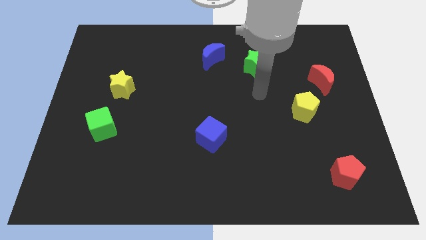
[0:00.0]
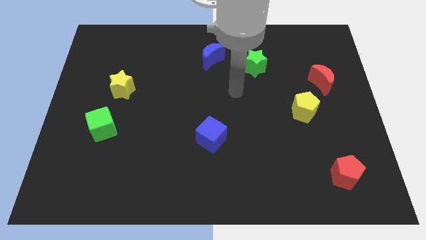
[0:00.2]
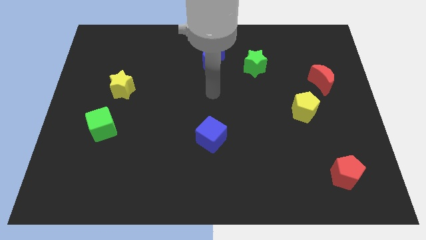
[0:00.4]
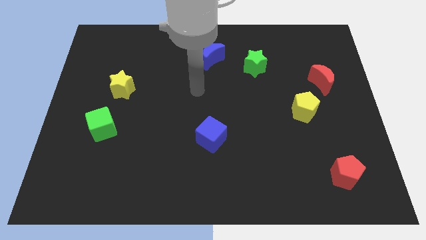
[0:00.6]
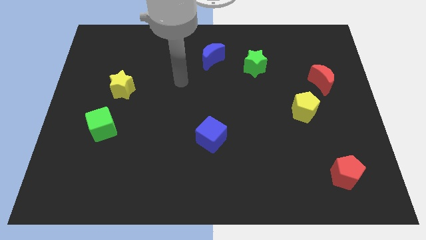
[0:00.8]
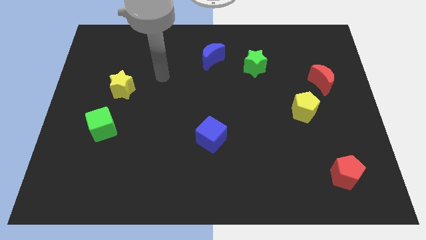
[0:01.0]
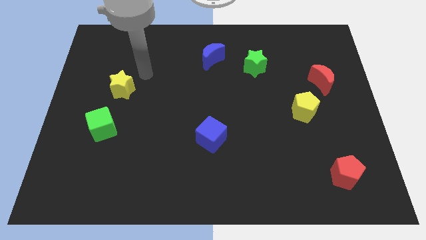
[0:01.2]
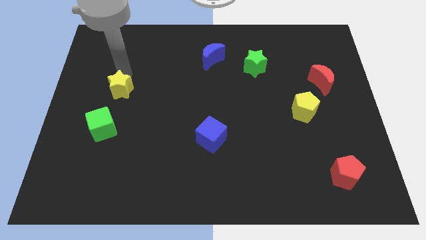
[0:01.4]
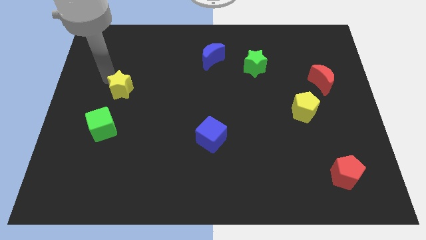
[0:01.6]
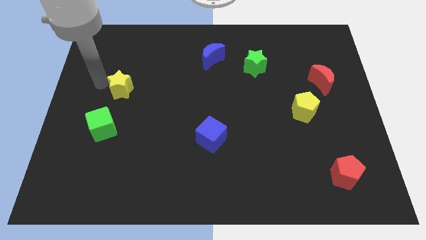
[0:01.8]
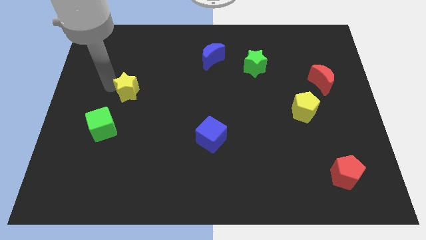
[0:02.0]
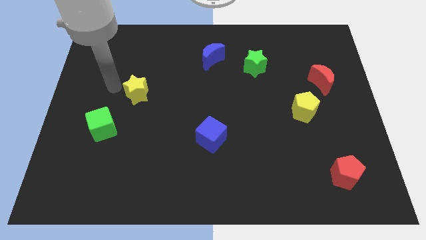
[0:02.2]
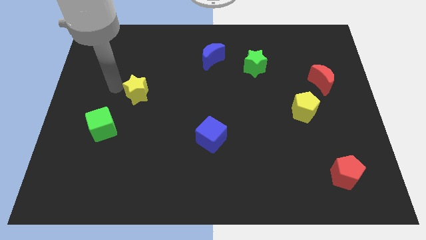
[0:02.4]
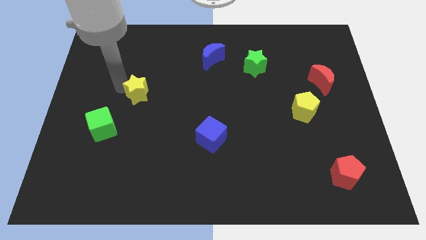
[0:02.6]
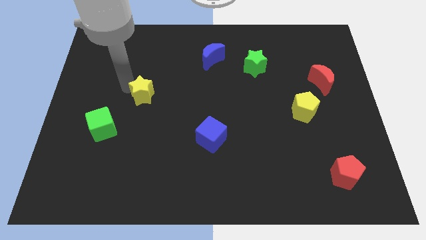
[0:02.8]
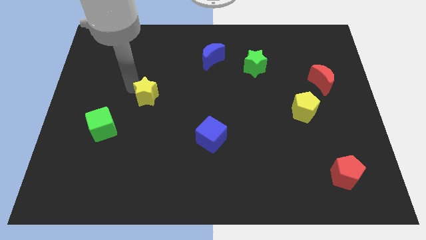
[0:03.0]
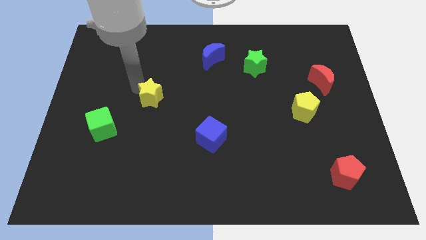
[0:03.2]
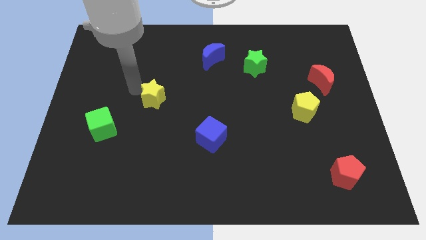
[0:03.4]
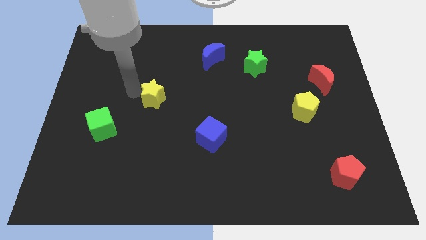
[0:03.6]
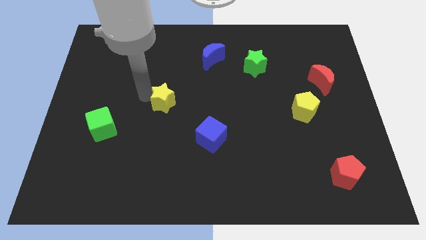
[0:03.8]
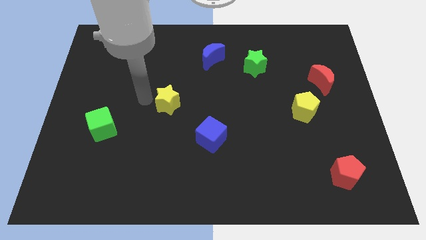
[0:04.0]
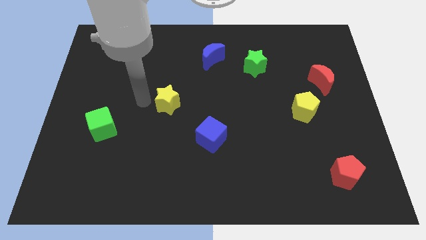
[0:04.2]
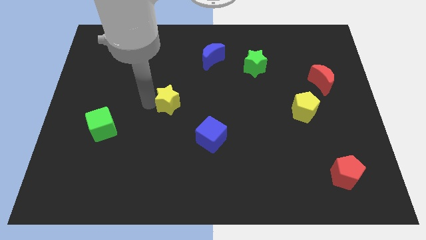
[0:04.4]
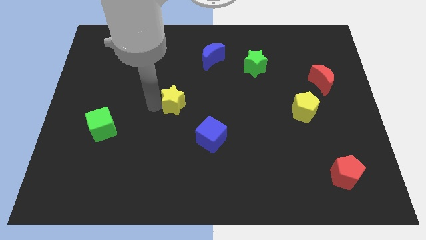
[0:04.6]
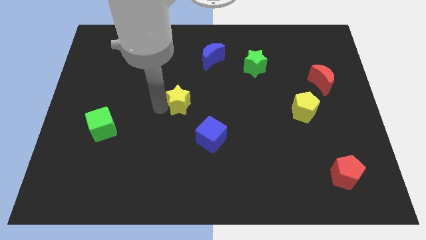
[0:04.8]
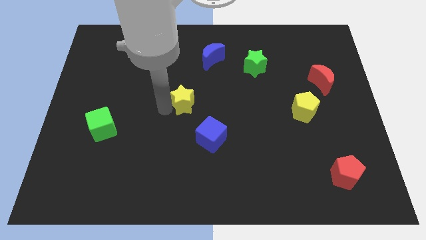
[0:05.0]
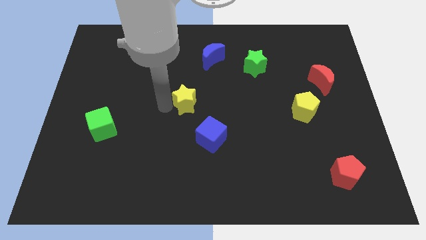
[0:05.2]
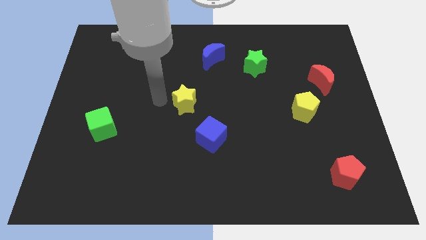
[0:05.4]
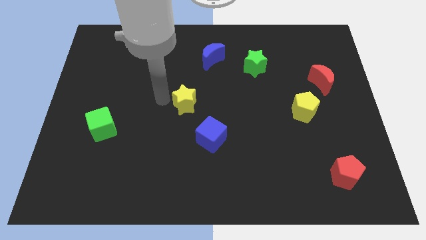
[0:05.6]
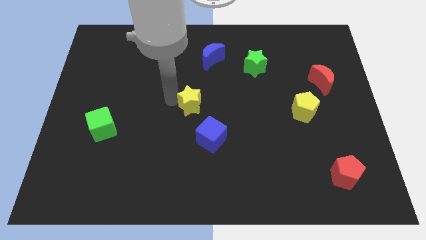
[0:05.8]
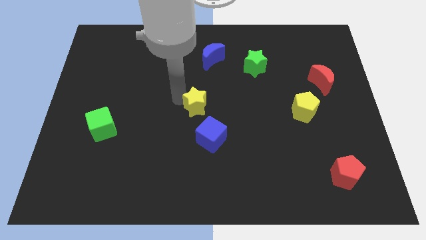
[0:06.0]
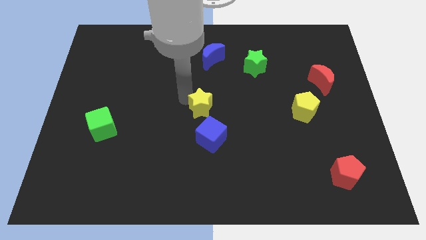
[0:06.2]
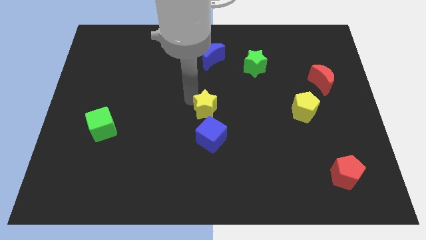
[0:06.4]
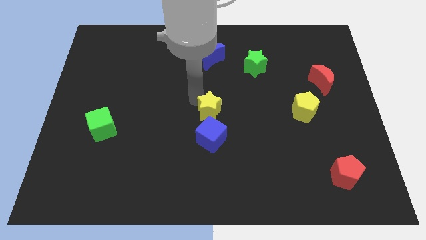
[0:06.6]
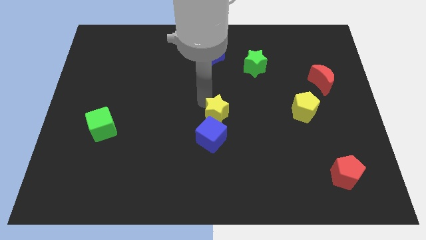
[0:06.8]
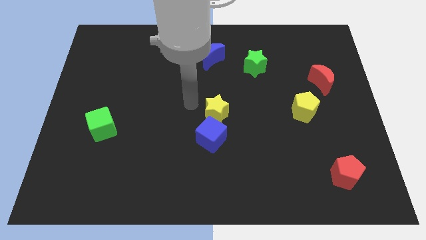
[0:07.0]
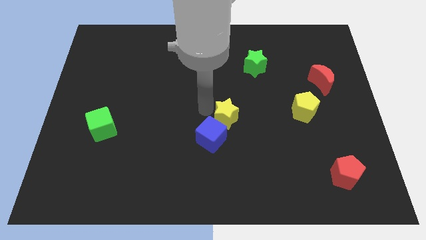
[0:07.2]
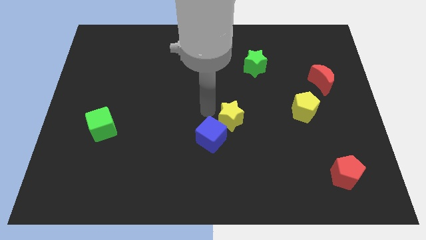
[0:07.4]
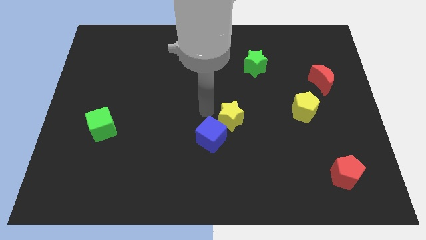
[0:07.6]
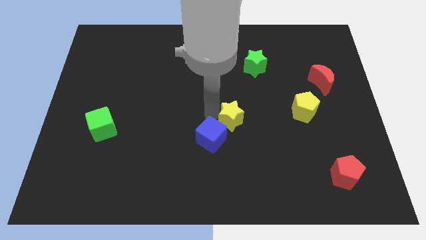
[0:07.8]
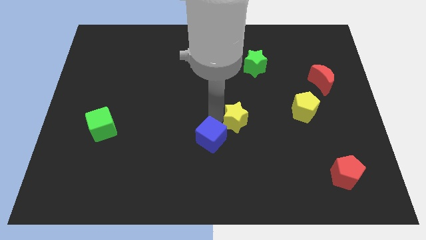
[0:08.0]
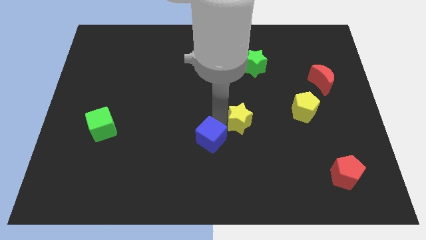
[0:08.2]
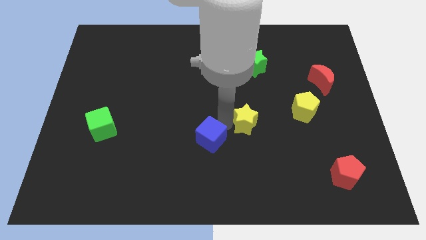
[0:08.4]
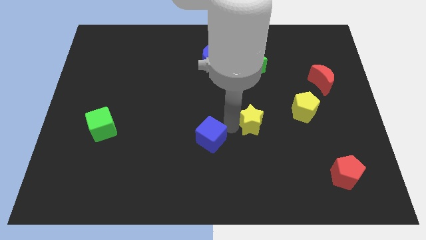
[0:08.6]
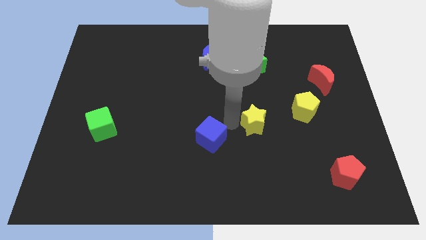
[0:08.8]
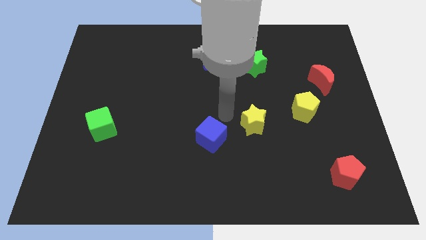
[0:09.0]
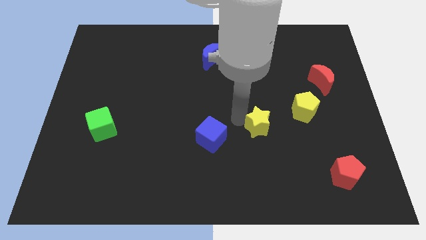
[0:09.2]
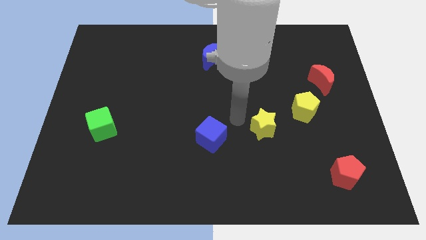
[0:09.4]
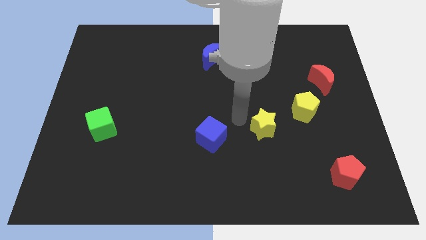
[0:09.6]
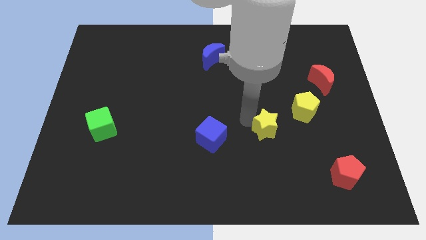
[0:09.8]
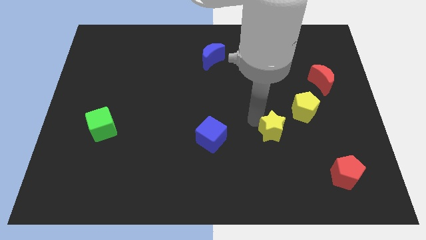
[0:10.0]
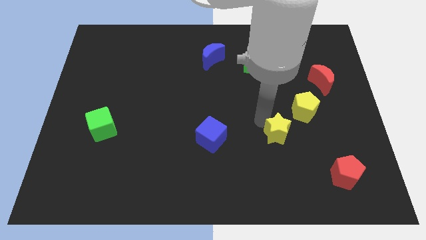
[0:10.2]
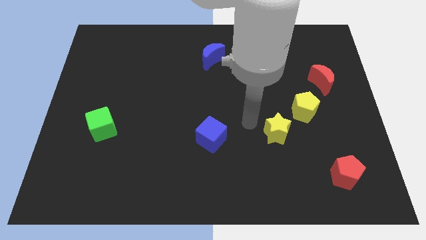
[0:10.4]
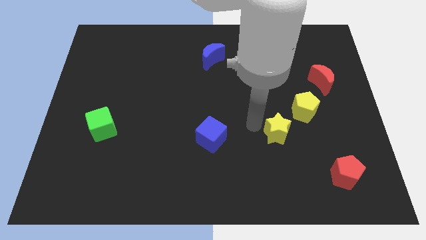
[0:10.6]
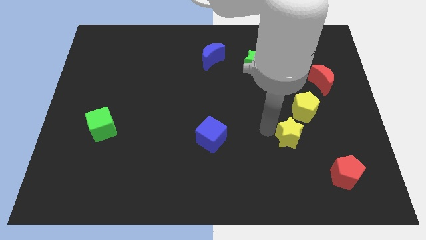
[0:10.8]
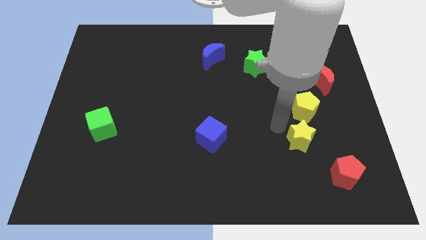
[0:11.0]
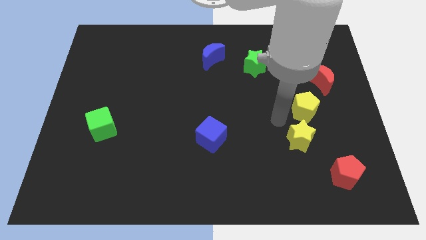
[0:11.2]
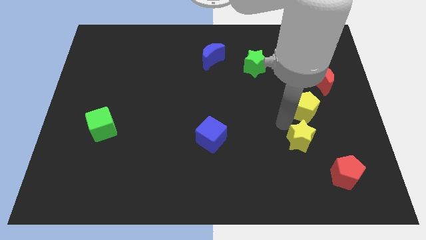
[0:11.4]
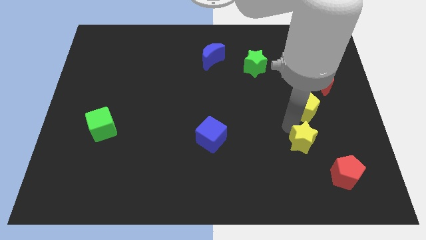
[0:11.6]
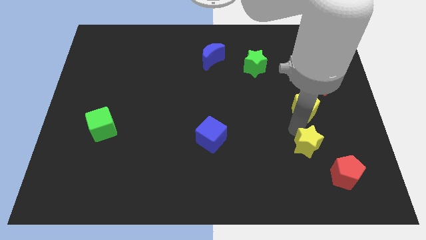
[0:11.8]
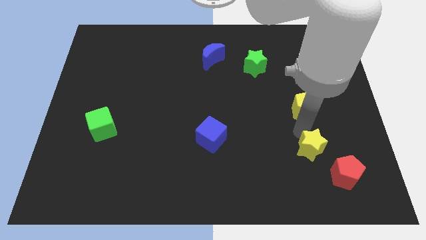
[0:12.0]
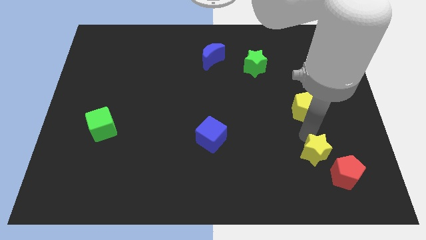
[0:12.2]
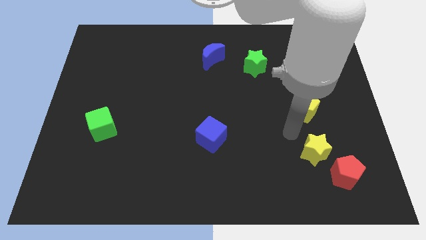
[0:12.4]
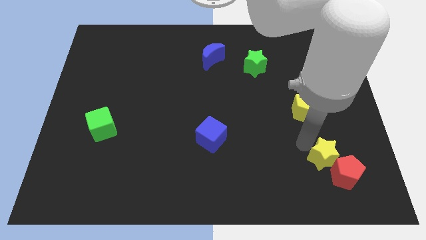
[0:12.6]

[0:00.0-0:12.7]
move the yellow star close to the red pentagon

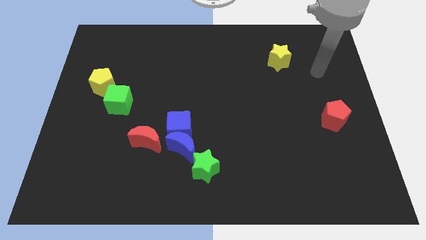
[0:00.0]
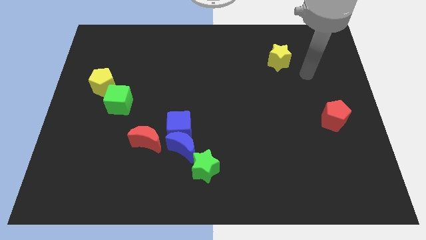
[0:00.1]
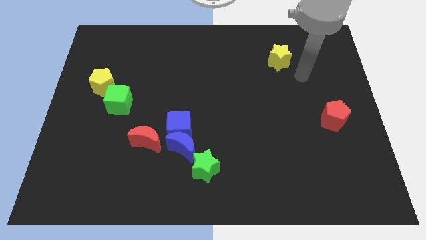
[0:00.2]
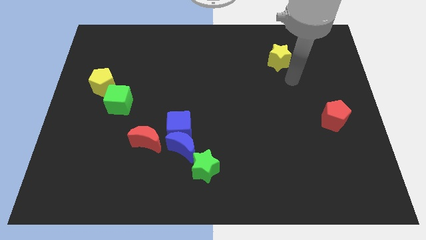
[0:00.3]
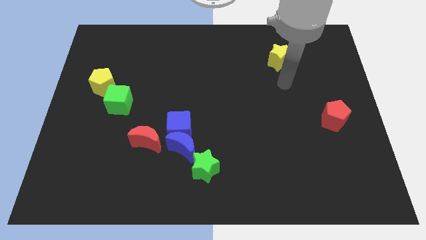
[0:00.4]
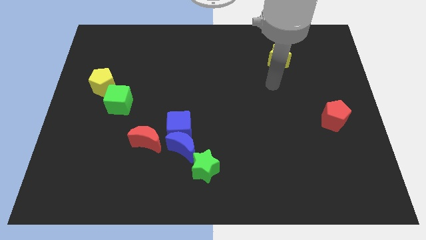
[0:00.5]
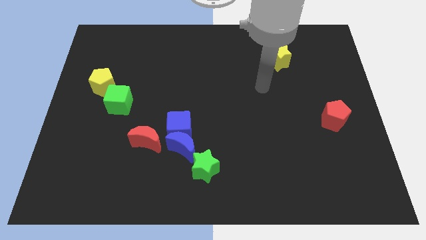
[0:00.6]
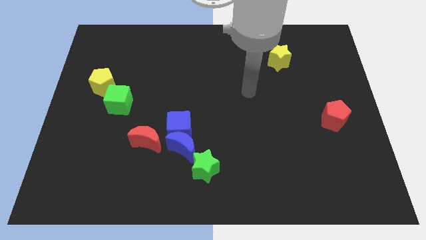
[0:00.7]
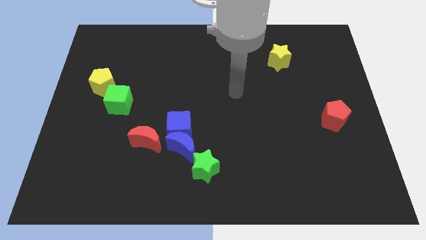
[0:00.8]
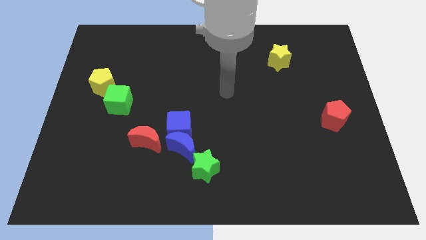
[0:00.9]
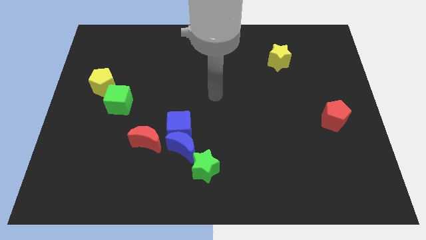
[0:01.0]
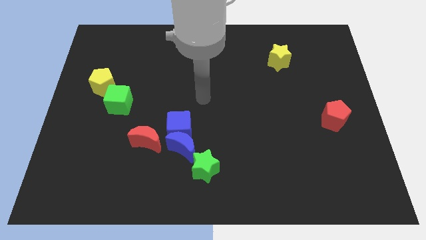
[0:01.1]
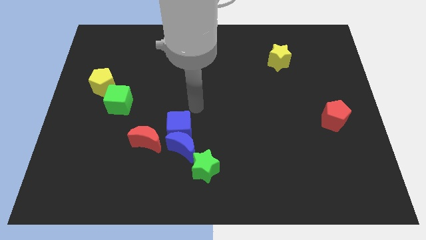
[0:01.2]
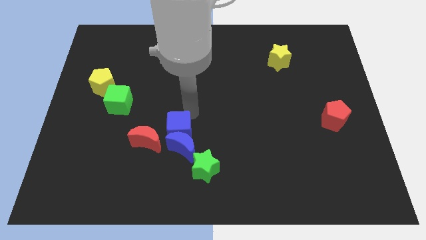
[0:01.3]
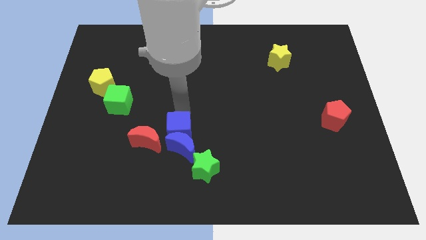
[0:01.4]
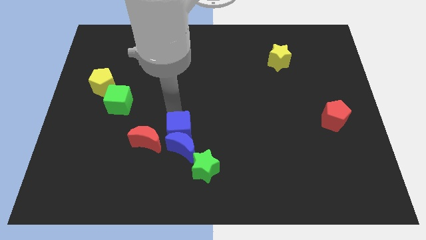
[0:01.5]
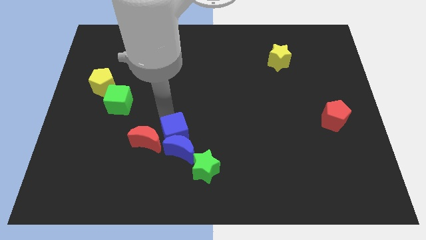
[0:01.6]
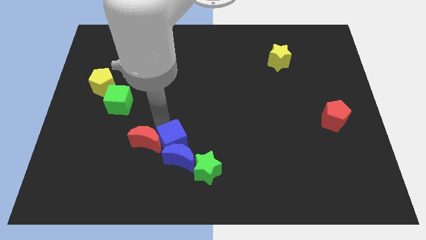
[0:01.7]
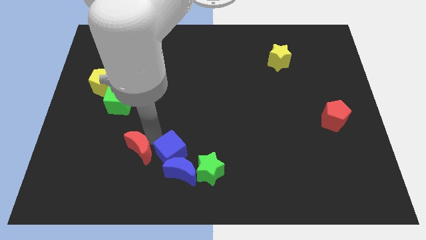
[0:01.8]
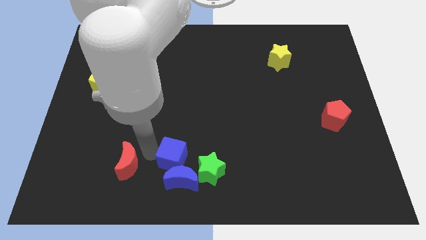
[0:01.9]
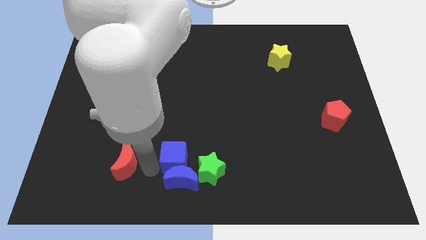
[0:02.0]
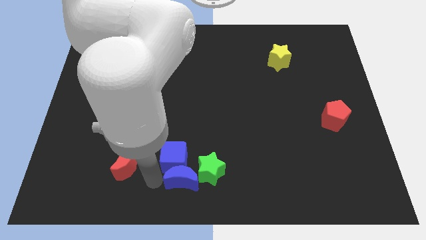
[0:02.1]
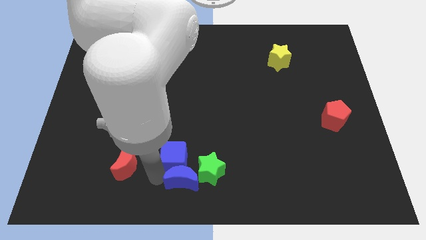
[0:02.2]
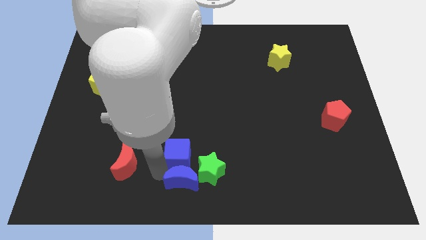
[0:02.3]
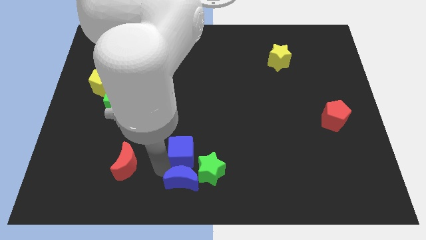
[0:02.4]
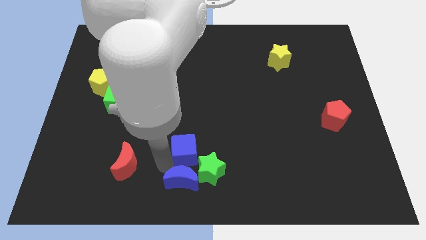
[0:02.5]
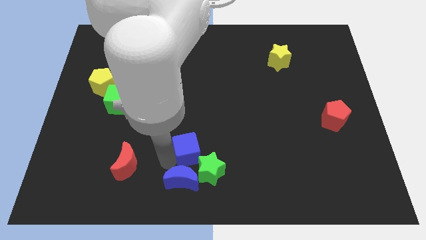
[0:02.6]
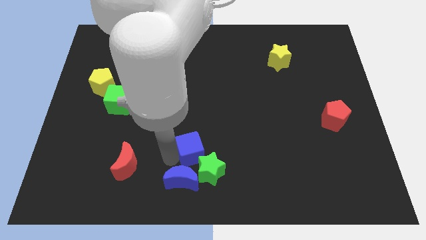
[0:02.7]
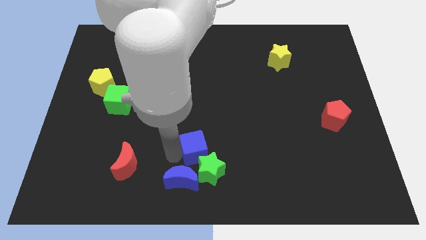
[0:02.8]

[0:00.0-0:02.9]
put the blue cube next to the green star
